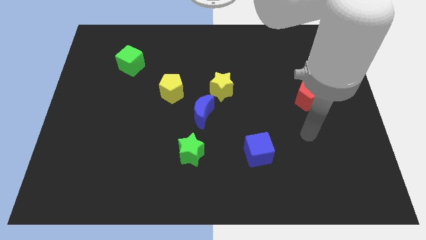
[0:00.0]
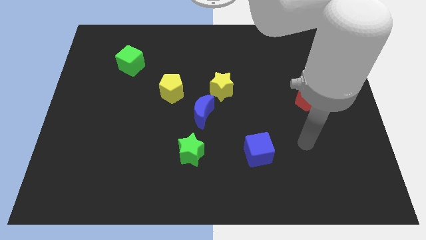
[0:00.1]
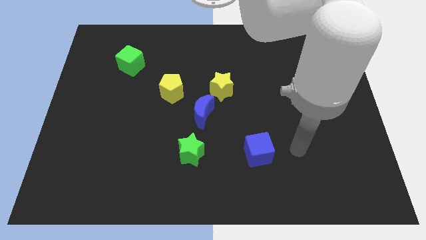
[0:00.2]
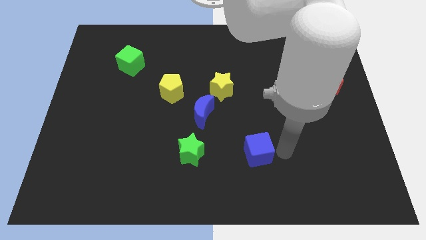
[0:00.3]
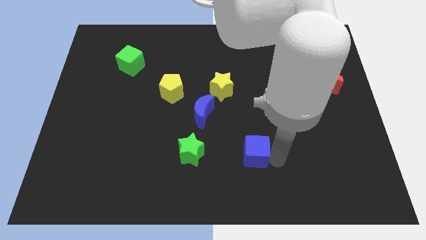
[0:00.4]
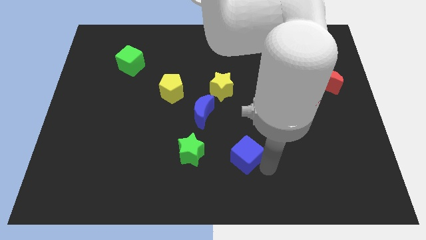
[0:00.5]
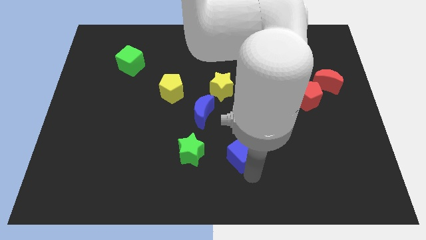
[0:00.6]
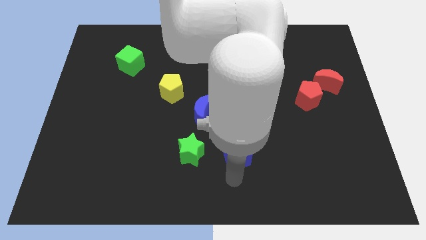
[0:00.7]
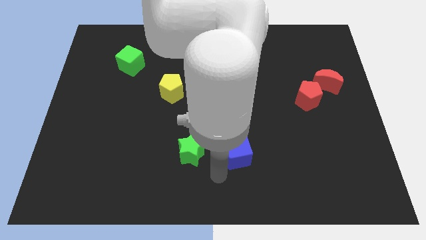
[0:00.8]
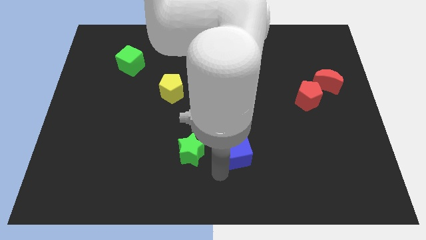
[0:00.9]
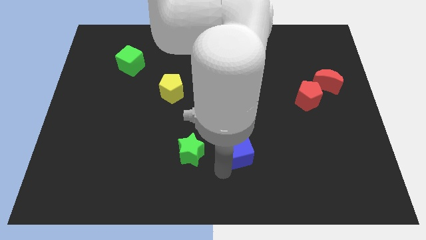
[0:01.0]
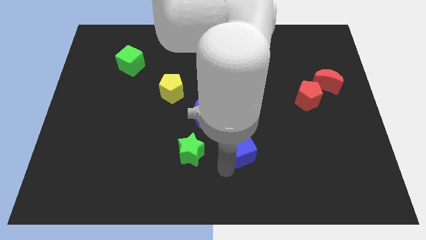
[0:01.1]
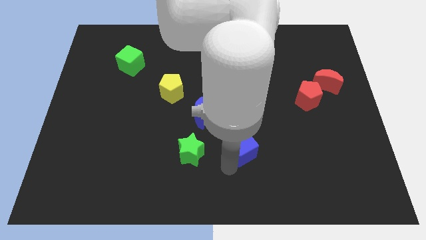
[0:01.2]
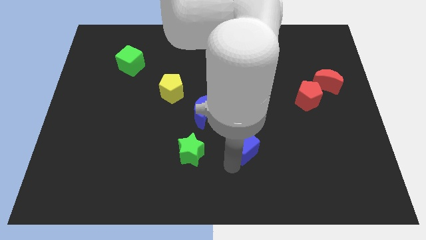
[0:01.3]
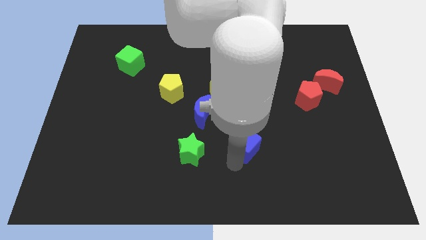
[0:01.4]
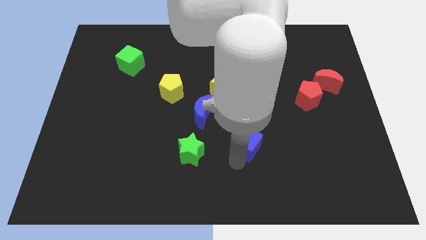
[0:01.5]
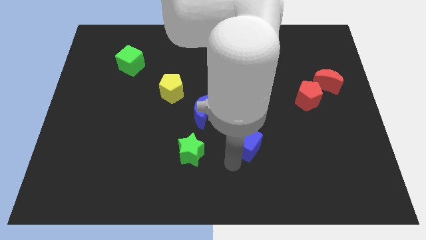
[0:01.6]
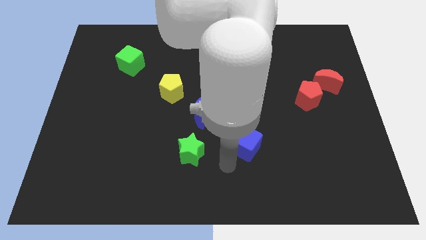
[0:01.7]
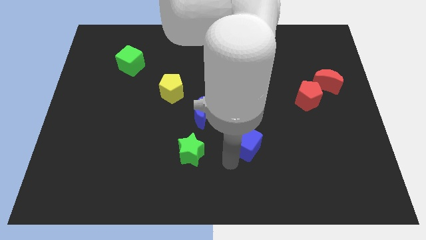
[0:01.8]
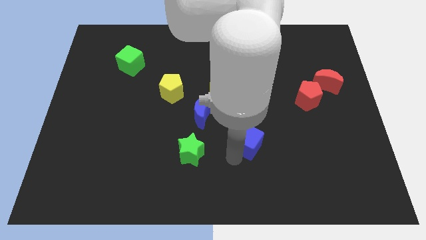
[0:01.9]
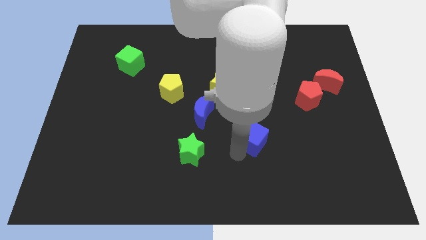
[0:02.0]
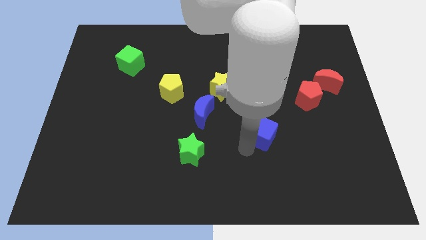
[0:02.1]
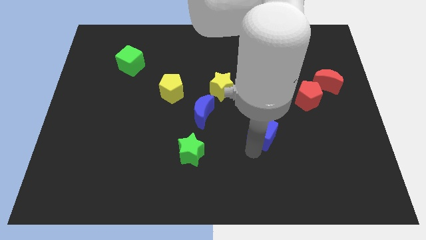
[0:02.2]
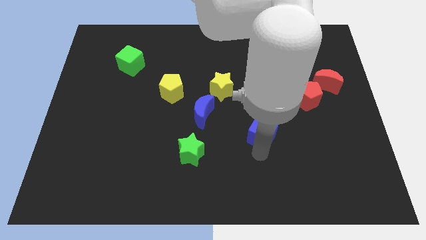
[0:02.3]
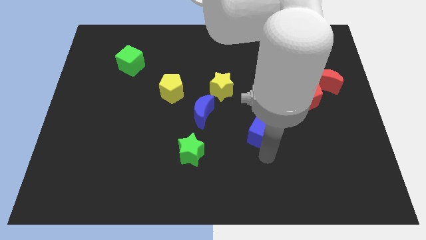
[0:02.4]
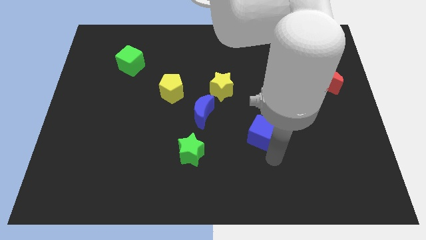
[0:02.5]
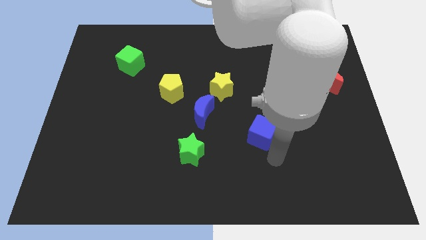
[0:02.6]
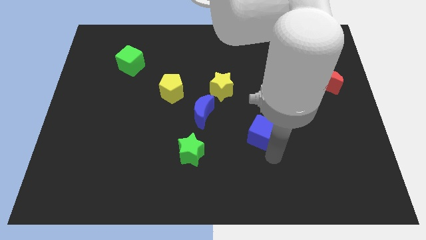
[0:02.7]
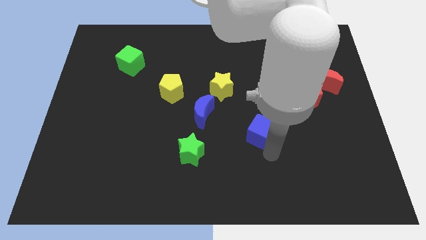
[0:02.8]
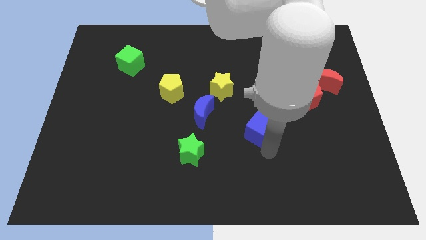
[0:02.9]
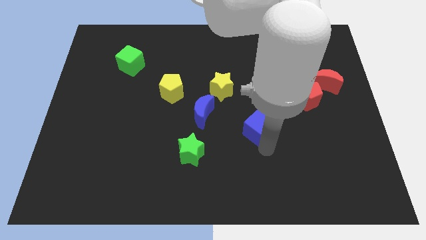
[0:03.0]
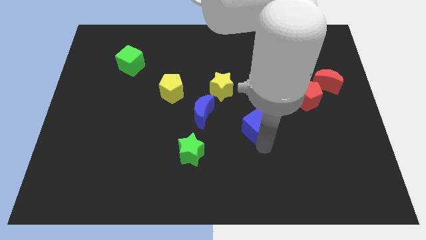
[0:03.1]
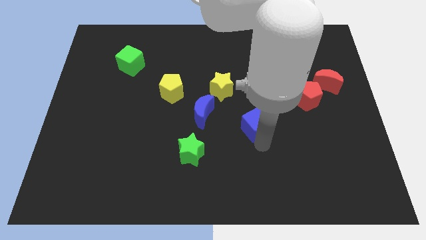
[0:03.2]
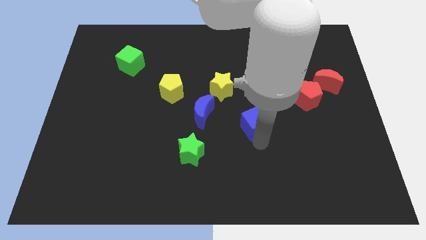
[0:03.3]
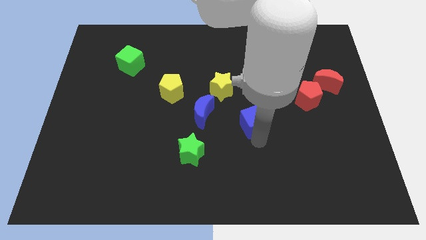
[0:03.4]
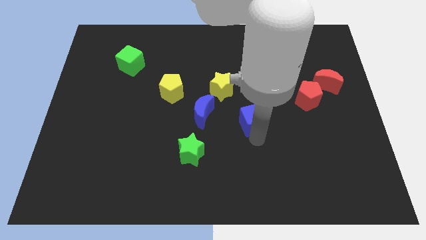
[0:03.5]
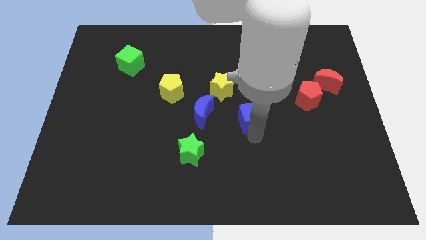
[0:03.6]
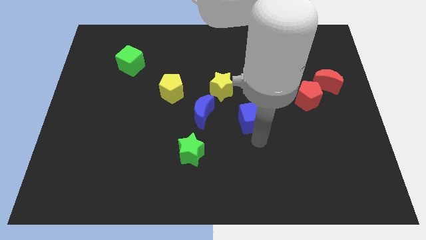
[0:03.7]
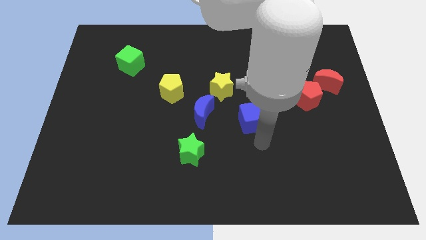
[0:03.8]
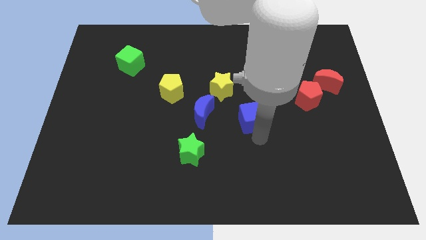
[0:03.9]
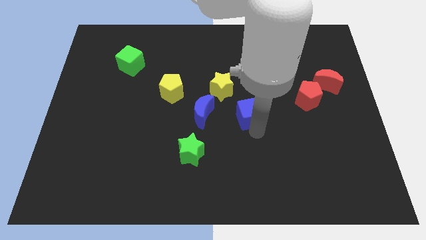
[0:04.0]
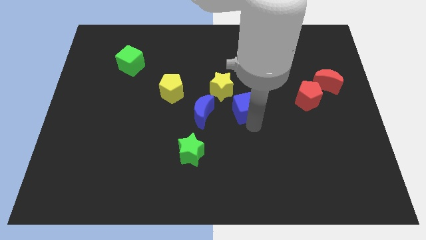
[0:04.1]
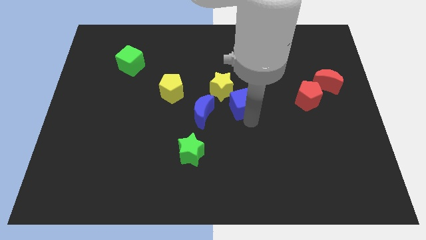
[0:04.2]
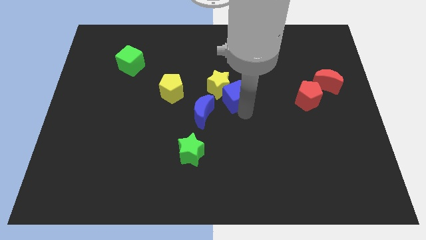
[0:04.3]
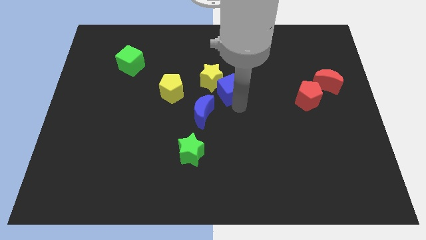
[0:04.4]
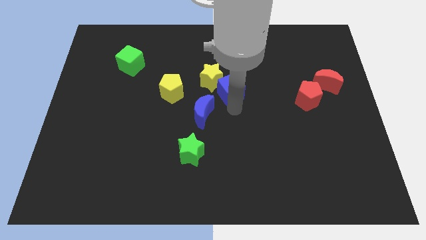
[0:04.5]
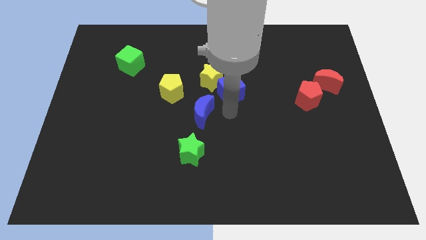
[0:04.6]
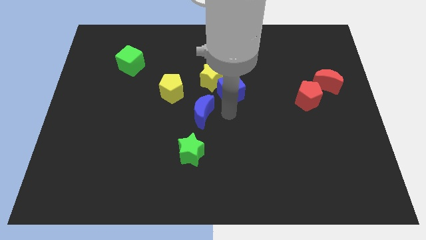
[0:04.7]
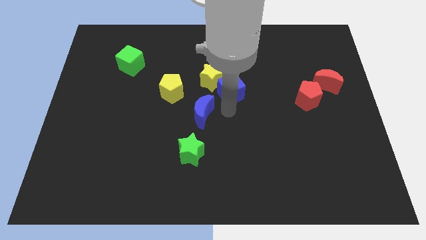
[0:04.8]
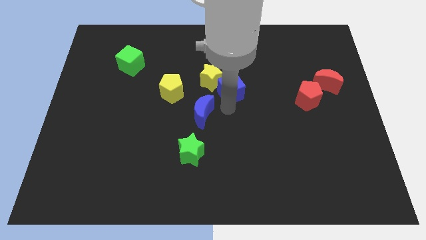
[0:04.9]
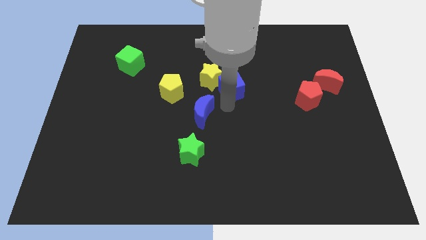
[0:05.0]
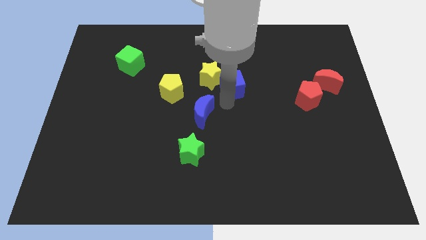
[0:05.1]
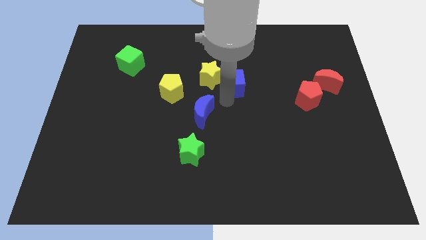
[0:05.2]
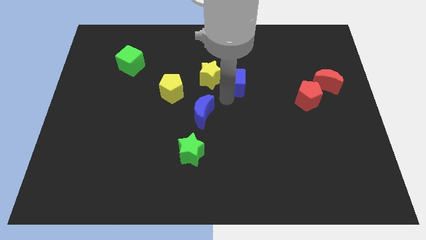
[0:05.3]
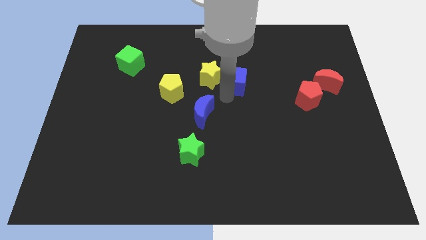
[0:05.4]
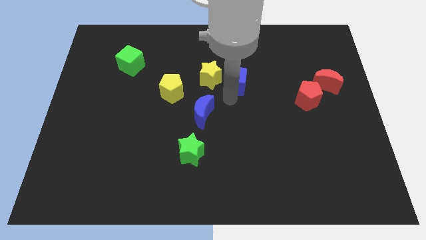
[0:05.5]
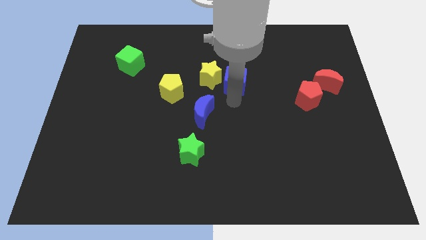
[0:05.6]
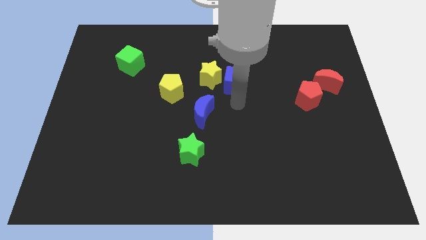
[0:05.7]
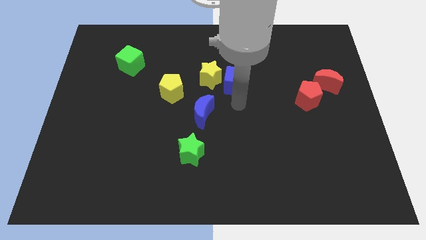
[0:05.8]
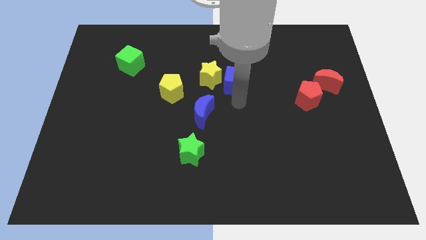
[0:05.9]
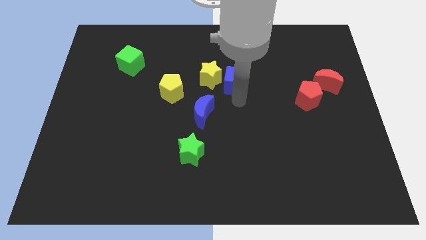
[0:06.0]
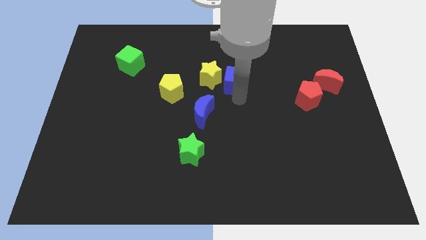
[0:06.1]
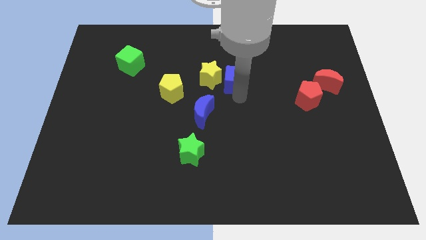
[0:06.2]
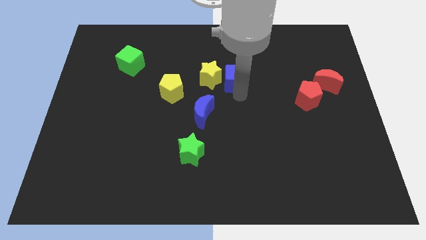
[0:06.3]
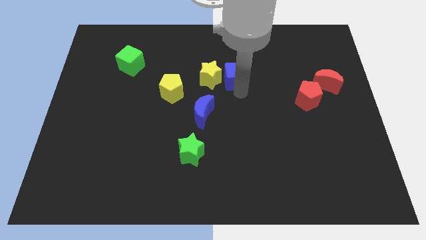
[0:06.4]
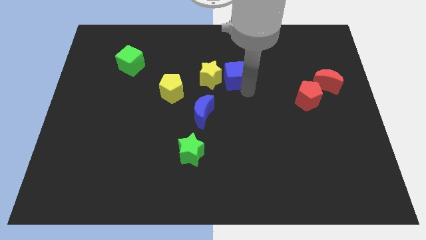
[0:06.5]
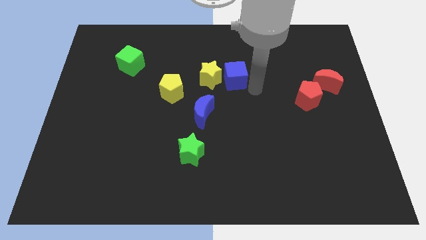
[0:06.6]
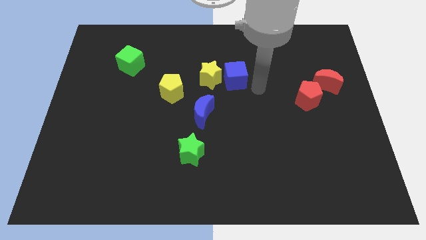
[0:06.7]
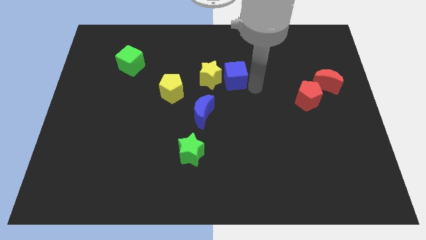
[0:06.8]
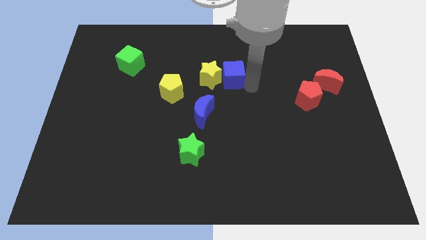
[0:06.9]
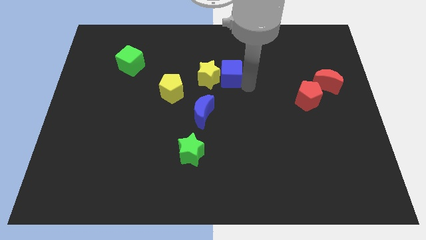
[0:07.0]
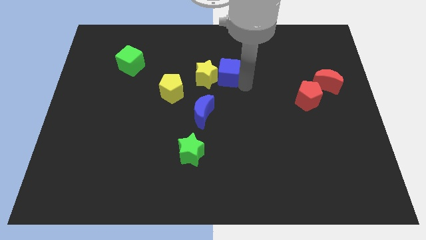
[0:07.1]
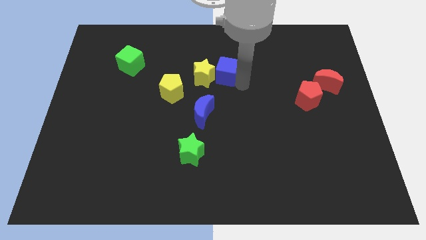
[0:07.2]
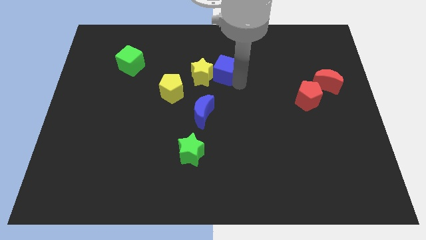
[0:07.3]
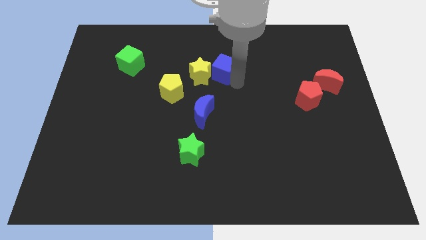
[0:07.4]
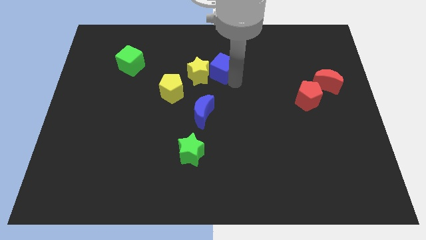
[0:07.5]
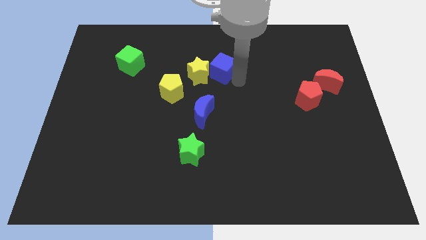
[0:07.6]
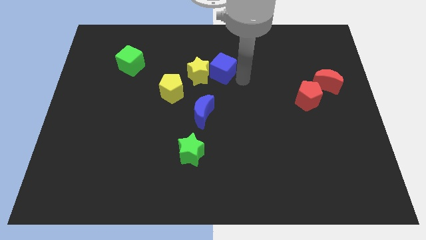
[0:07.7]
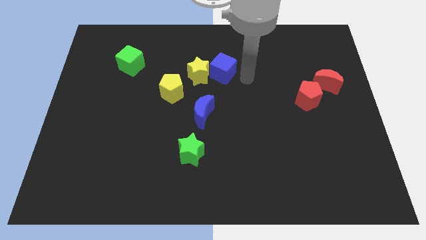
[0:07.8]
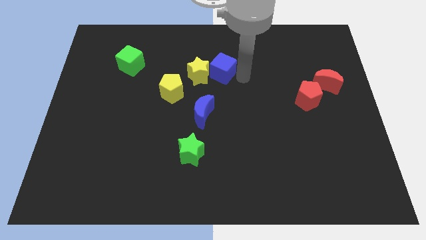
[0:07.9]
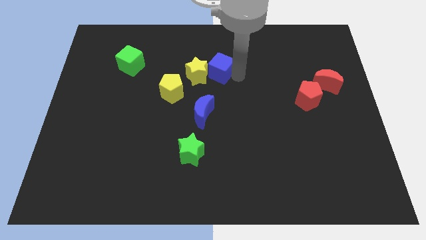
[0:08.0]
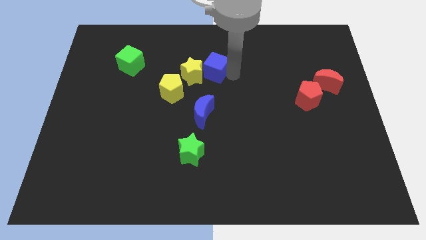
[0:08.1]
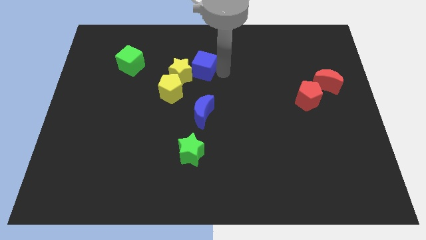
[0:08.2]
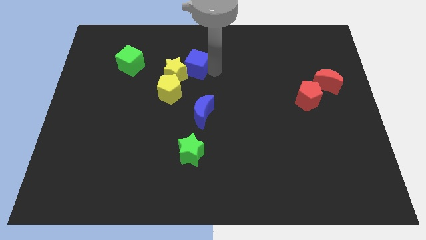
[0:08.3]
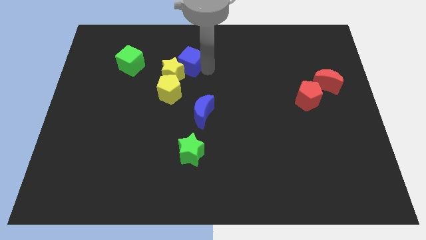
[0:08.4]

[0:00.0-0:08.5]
slide the blue cube to the top side of the yellow pentagon
